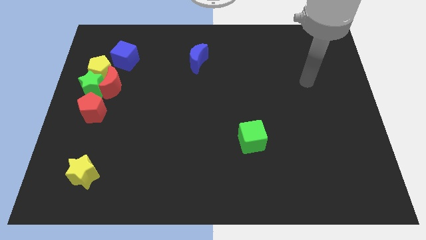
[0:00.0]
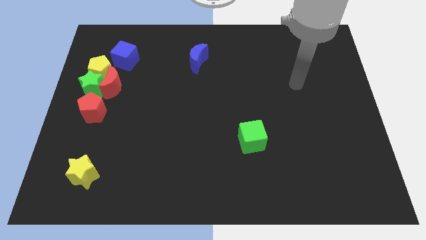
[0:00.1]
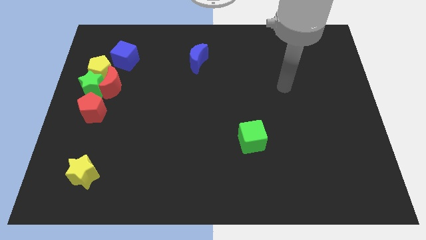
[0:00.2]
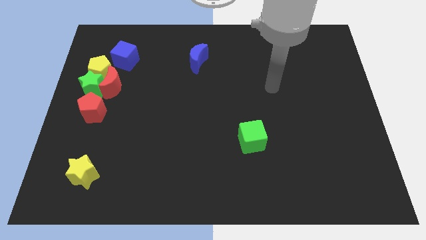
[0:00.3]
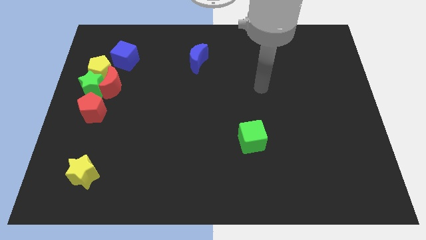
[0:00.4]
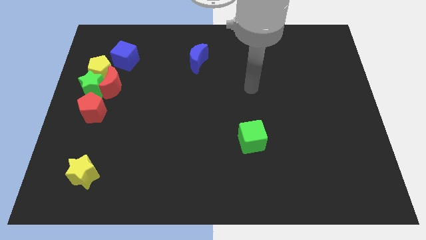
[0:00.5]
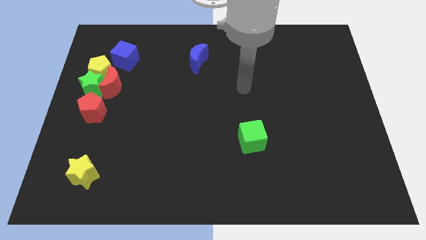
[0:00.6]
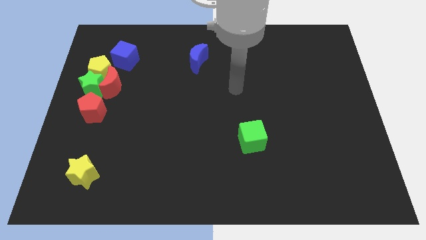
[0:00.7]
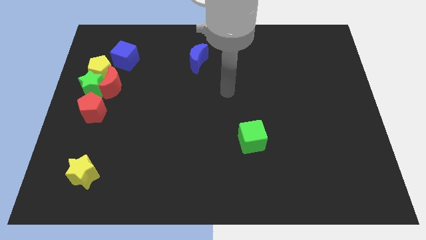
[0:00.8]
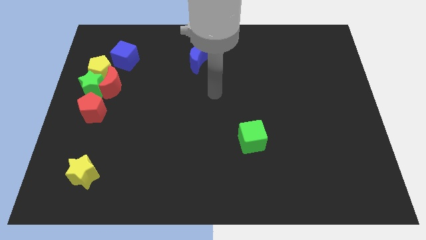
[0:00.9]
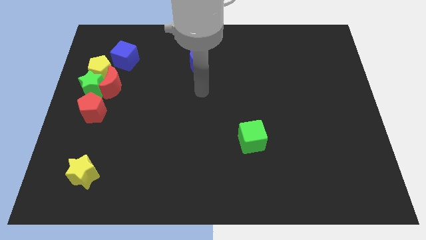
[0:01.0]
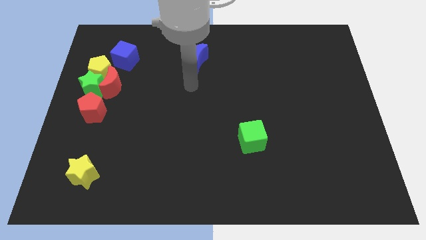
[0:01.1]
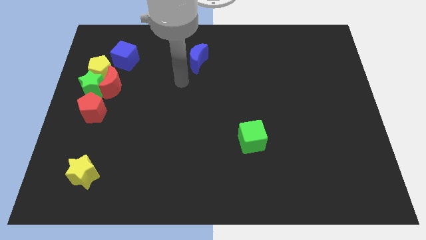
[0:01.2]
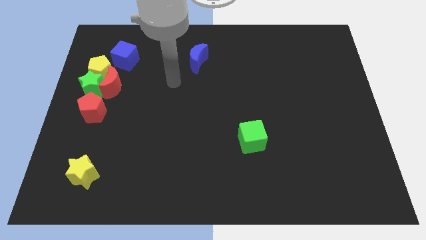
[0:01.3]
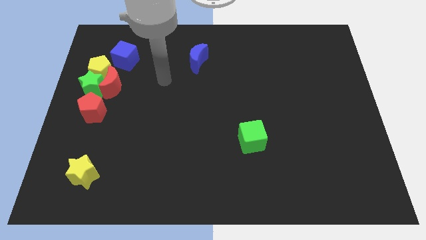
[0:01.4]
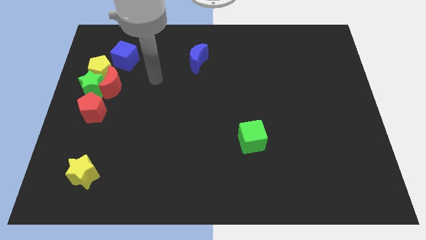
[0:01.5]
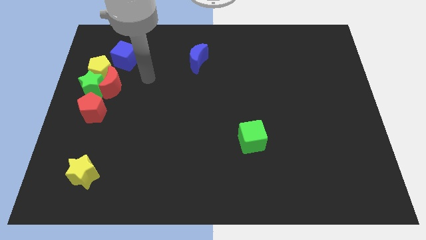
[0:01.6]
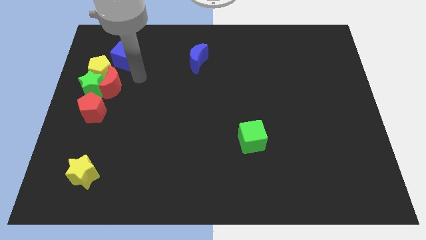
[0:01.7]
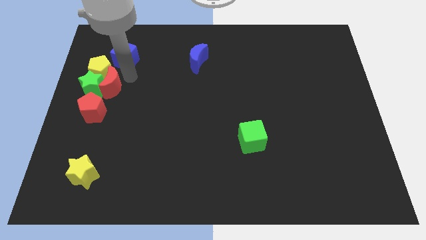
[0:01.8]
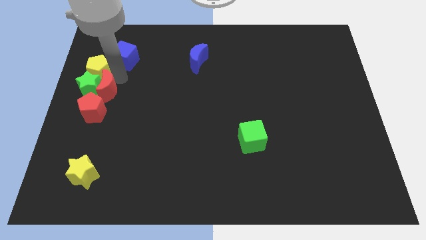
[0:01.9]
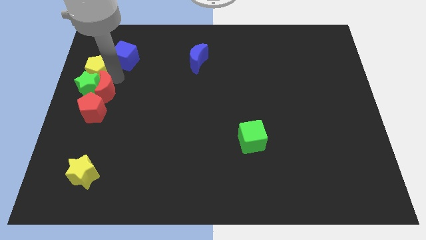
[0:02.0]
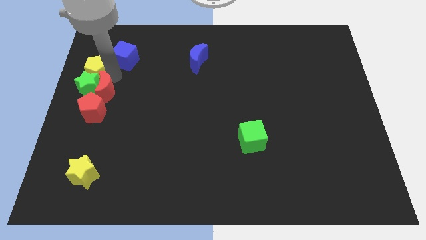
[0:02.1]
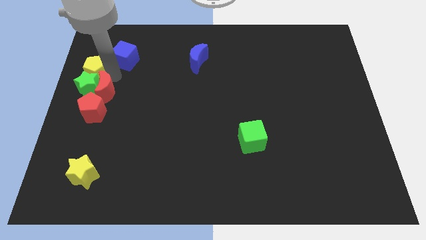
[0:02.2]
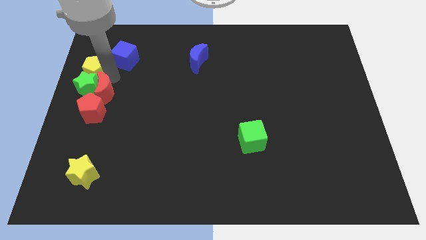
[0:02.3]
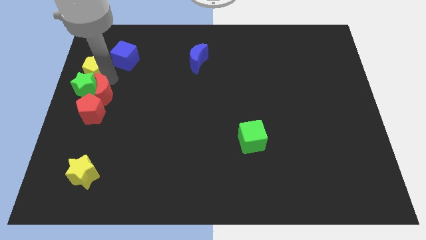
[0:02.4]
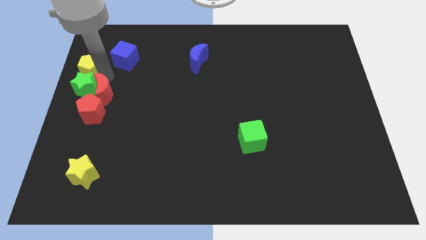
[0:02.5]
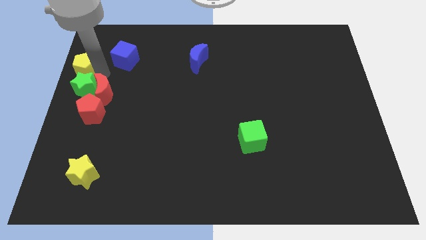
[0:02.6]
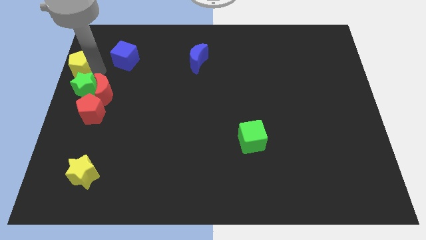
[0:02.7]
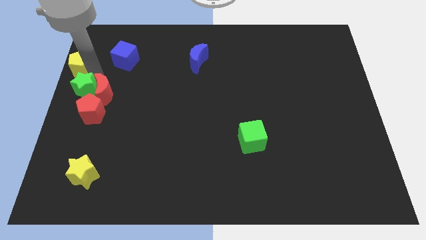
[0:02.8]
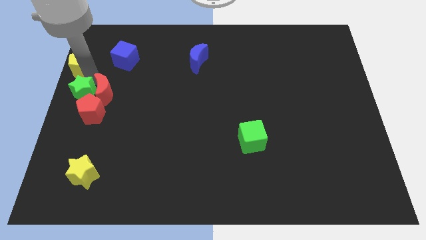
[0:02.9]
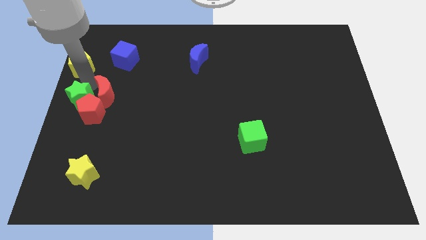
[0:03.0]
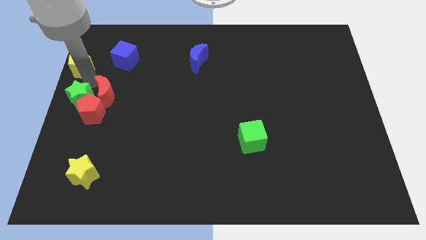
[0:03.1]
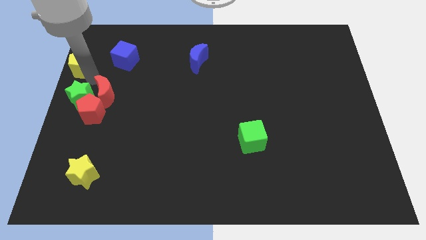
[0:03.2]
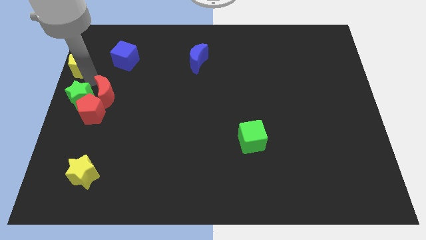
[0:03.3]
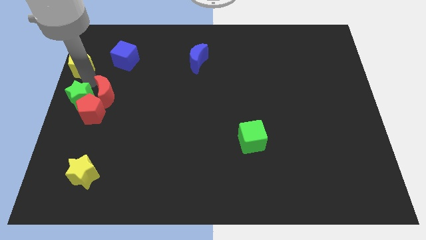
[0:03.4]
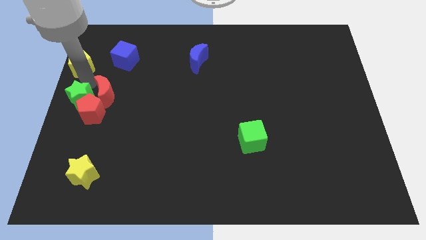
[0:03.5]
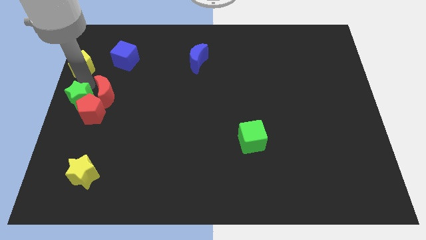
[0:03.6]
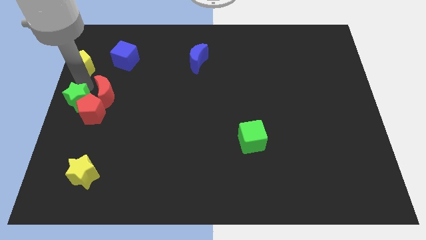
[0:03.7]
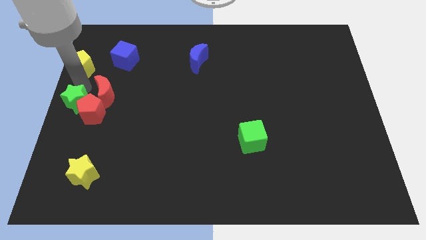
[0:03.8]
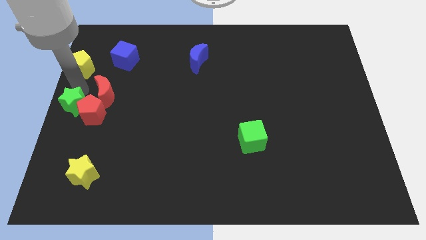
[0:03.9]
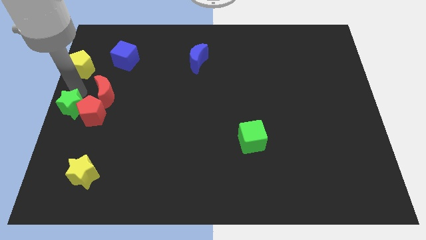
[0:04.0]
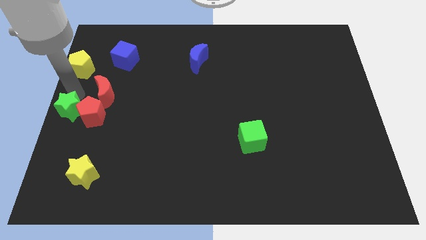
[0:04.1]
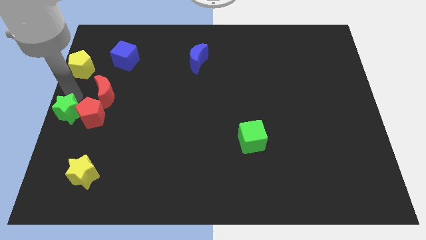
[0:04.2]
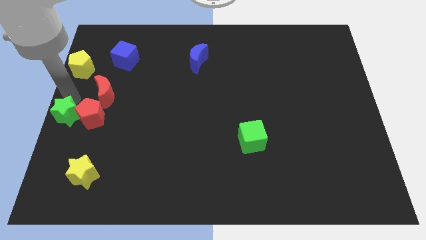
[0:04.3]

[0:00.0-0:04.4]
slightly move the green star down

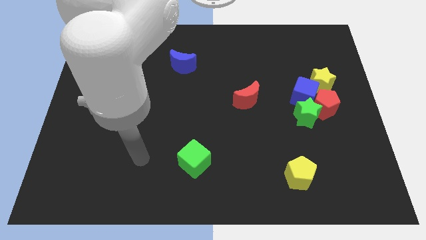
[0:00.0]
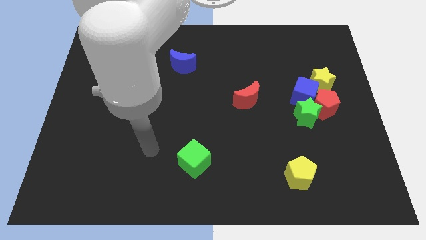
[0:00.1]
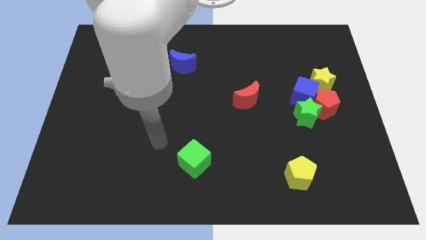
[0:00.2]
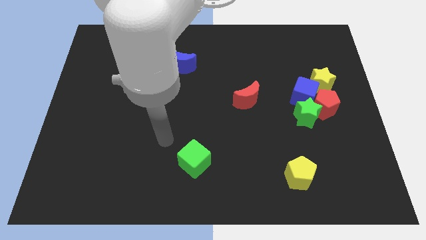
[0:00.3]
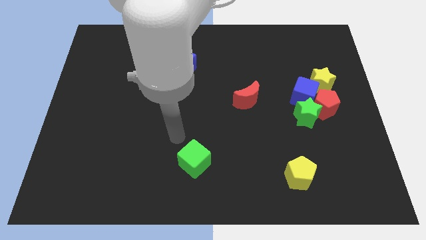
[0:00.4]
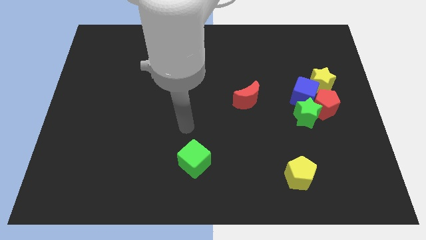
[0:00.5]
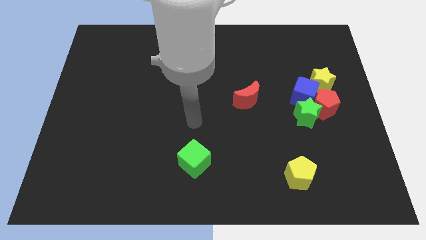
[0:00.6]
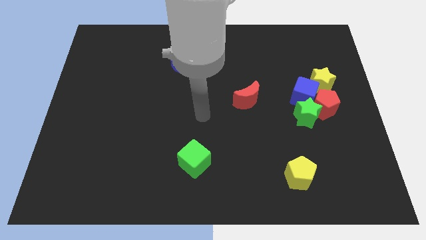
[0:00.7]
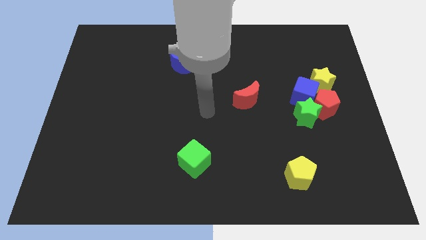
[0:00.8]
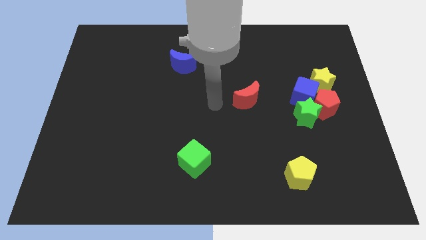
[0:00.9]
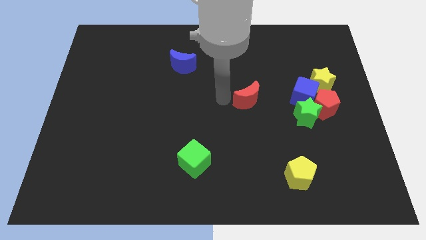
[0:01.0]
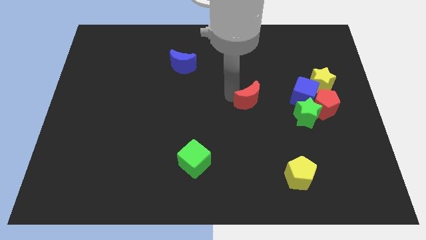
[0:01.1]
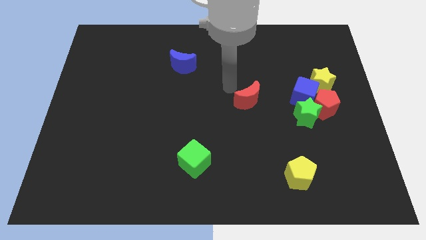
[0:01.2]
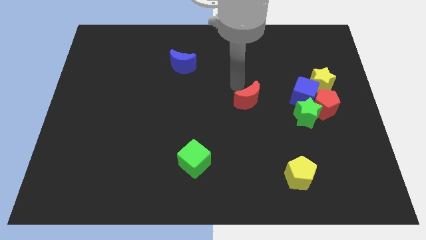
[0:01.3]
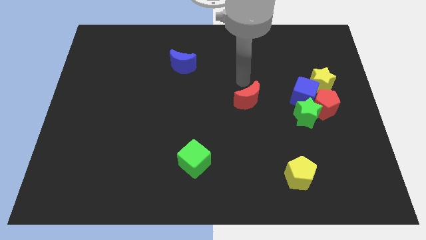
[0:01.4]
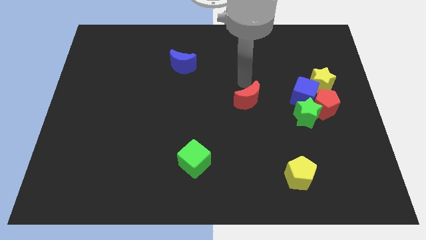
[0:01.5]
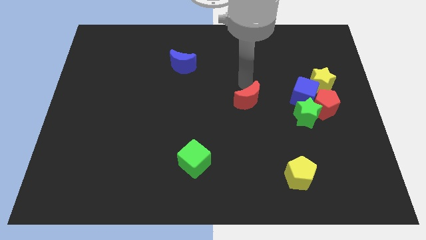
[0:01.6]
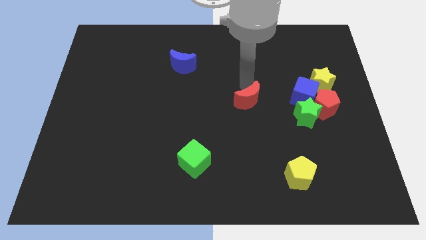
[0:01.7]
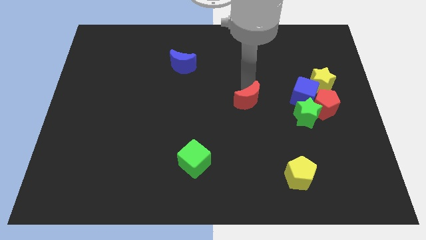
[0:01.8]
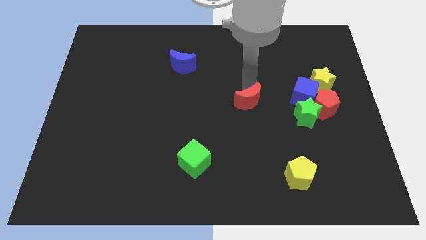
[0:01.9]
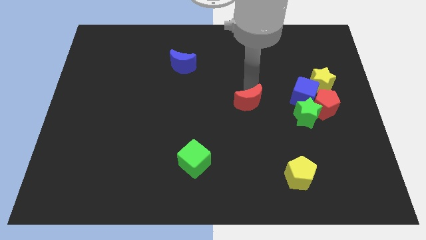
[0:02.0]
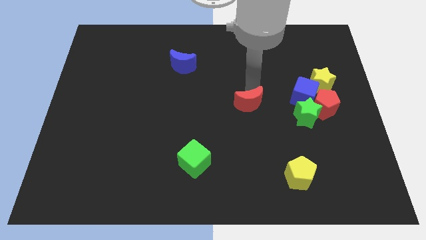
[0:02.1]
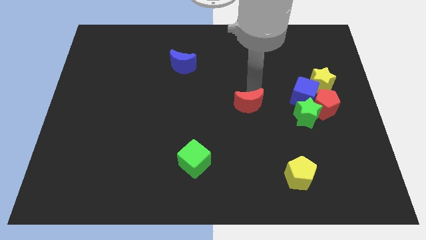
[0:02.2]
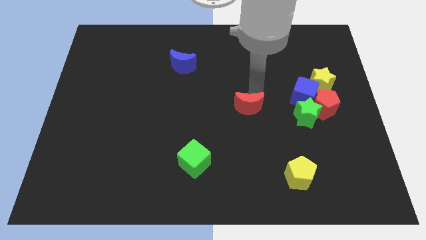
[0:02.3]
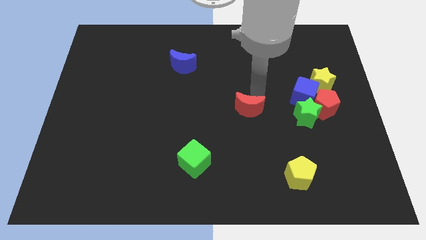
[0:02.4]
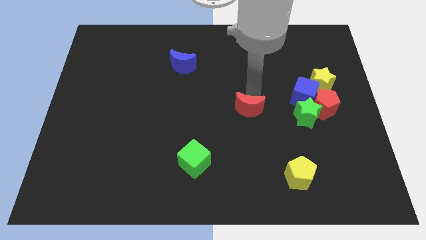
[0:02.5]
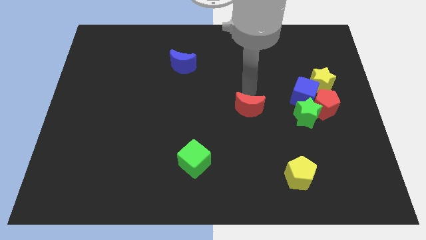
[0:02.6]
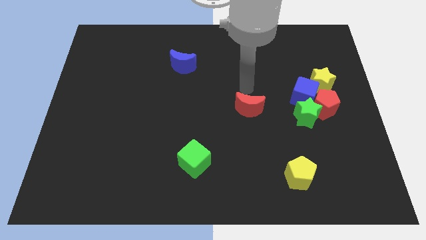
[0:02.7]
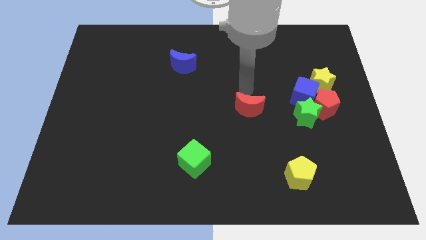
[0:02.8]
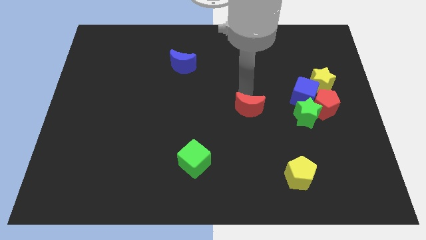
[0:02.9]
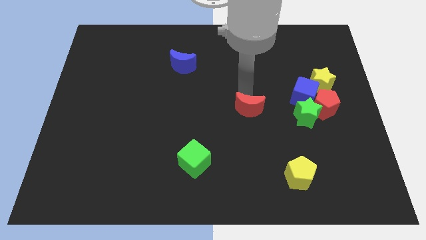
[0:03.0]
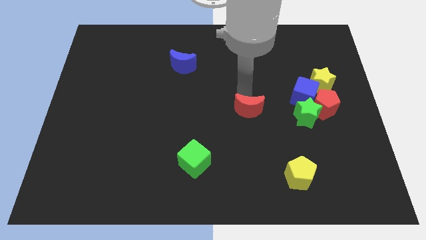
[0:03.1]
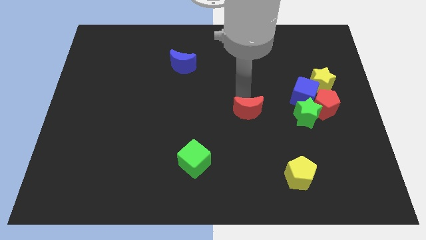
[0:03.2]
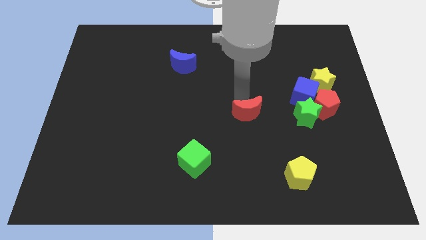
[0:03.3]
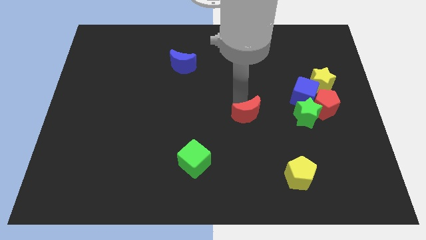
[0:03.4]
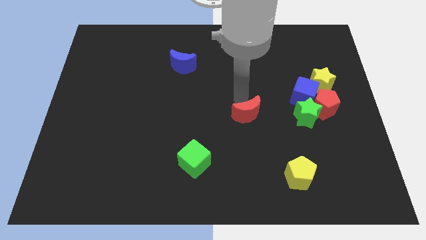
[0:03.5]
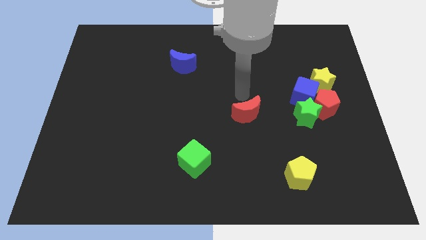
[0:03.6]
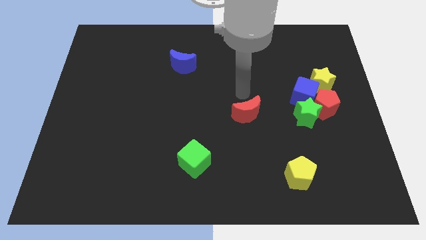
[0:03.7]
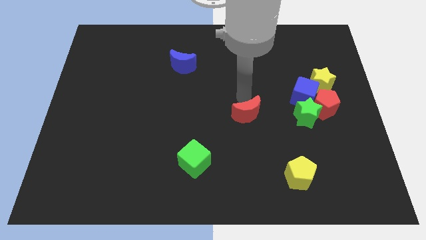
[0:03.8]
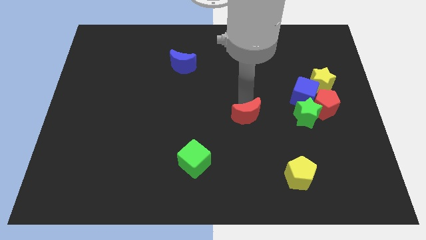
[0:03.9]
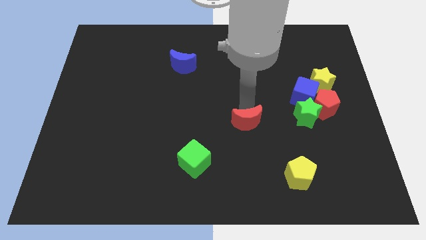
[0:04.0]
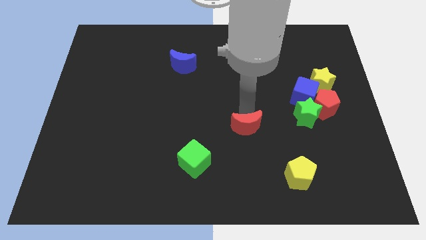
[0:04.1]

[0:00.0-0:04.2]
move the red moon a little bit downwards
